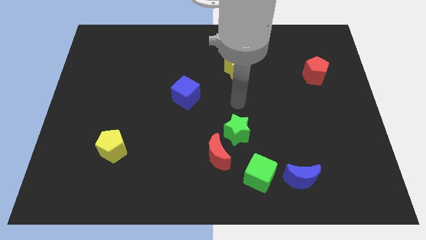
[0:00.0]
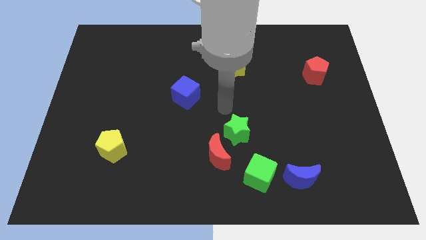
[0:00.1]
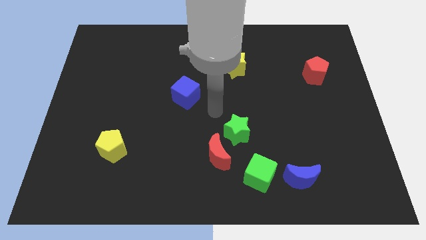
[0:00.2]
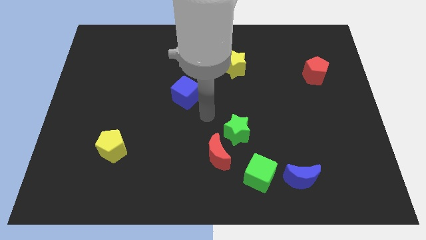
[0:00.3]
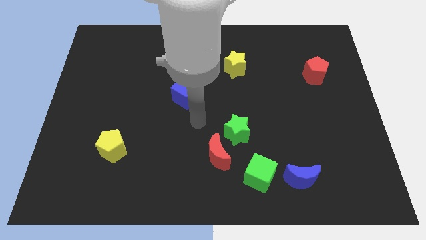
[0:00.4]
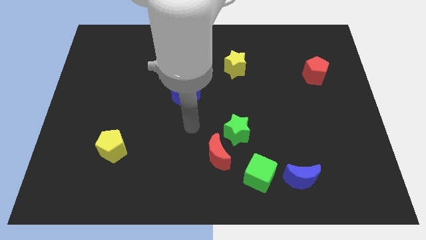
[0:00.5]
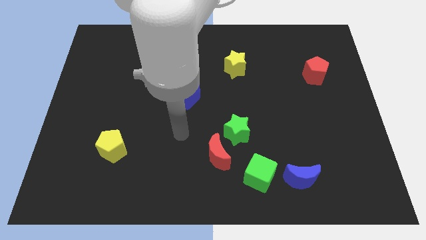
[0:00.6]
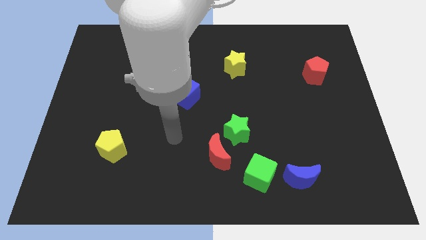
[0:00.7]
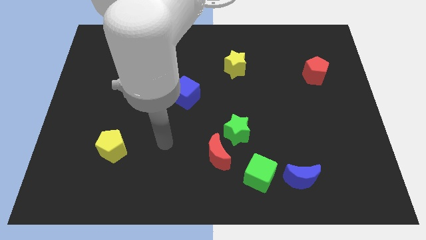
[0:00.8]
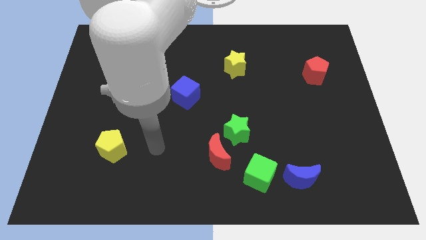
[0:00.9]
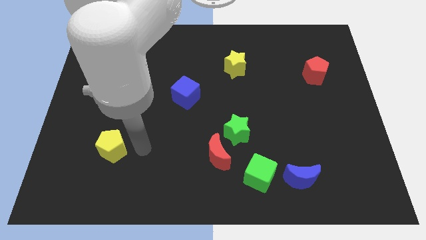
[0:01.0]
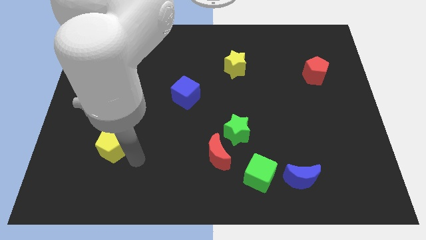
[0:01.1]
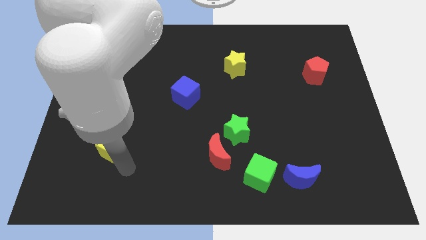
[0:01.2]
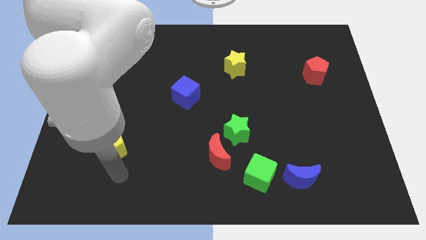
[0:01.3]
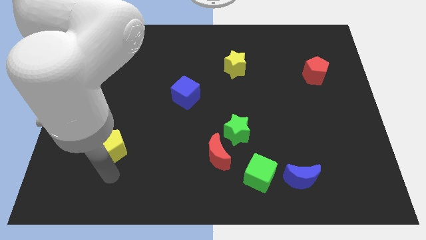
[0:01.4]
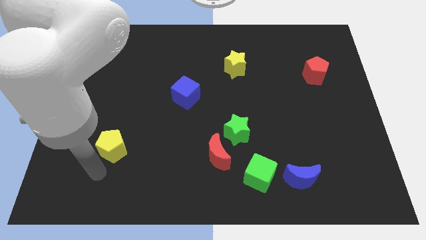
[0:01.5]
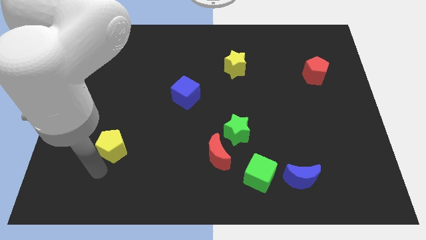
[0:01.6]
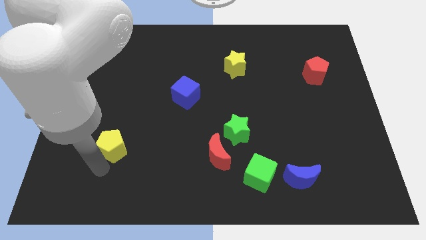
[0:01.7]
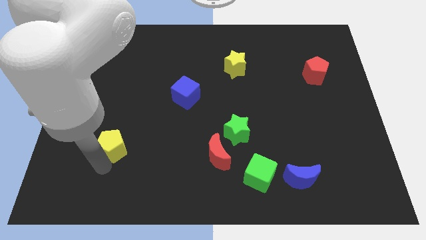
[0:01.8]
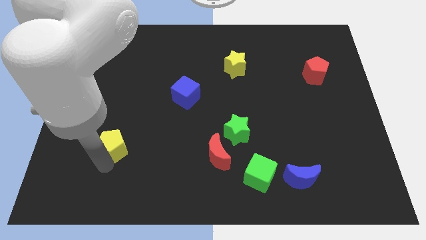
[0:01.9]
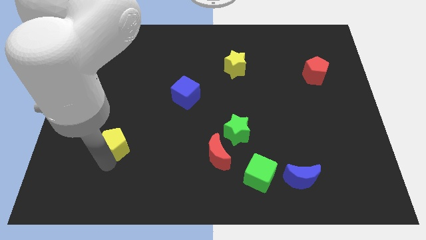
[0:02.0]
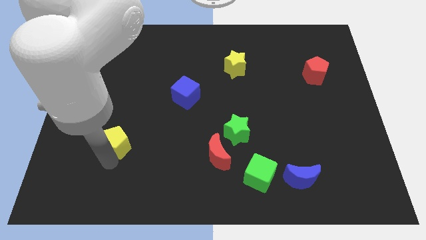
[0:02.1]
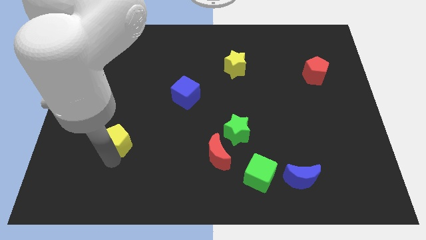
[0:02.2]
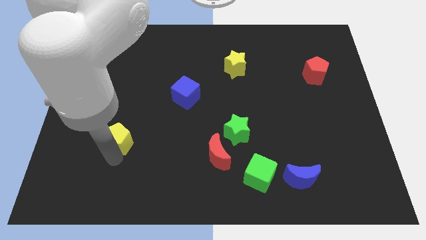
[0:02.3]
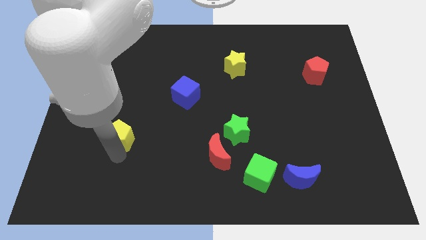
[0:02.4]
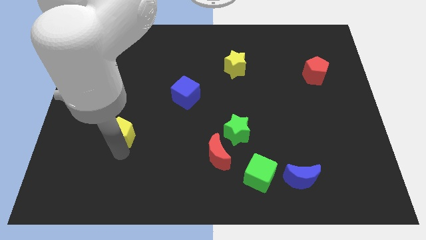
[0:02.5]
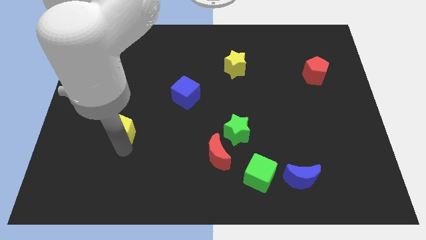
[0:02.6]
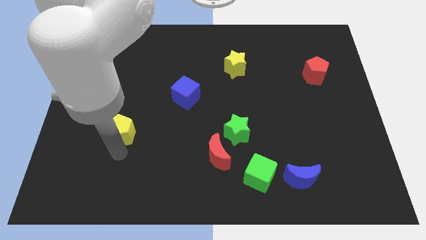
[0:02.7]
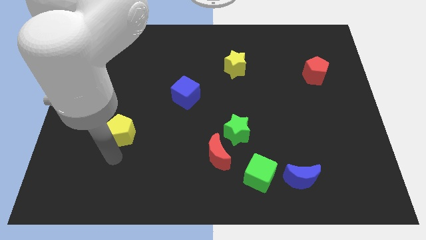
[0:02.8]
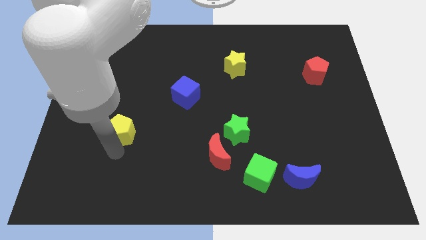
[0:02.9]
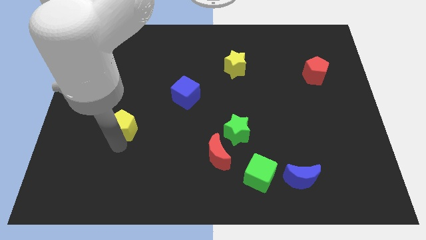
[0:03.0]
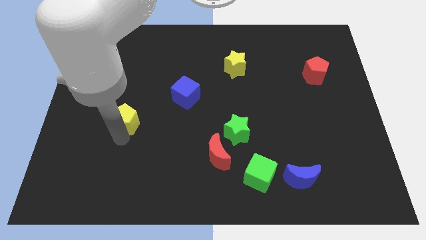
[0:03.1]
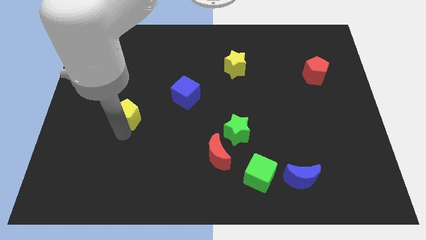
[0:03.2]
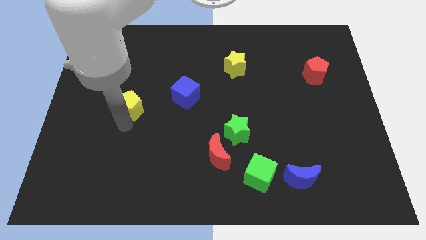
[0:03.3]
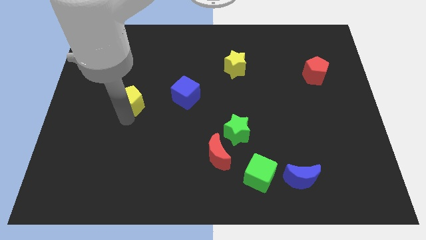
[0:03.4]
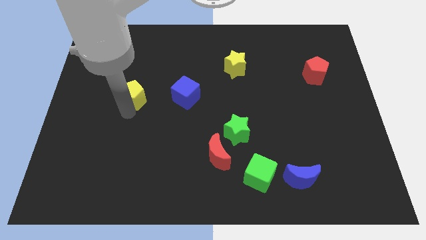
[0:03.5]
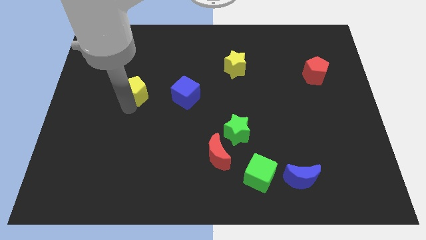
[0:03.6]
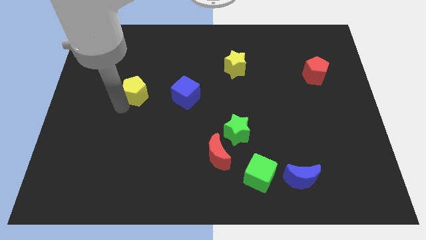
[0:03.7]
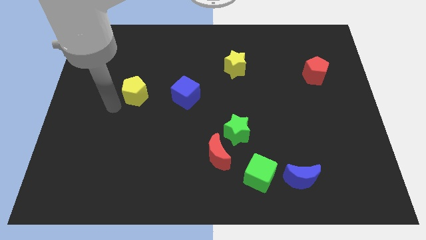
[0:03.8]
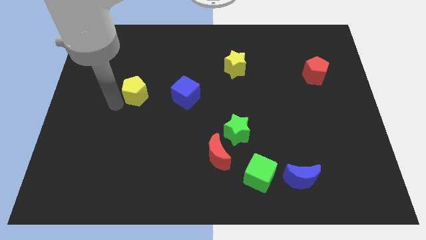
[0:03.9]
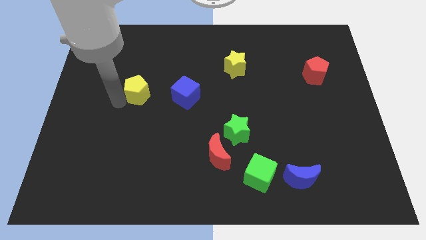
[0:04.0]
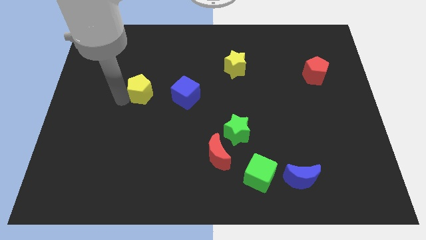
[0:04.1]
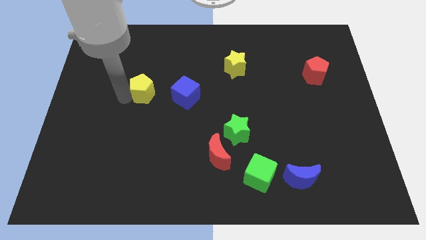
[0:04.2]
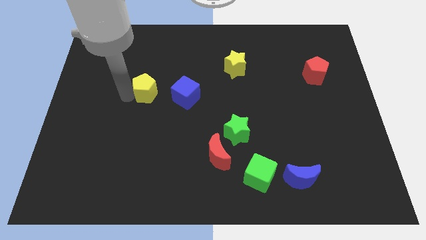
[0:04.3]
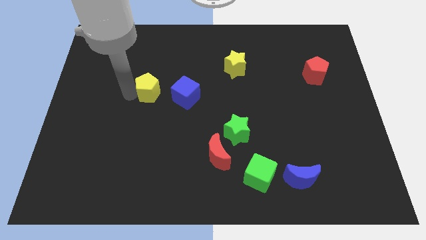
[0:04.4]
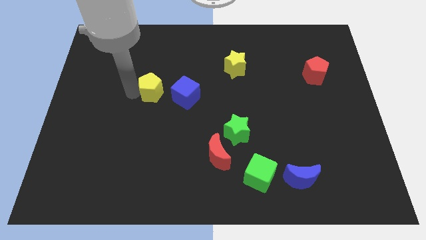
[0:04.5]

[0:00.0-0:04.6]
move the yellow pentagon to the top left of the blue cube

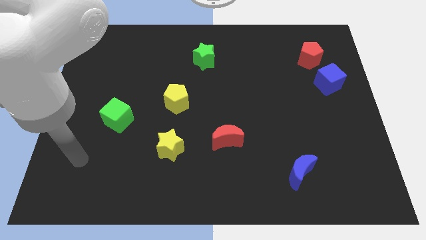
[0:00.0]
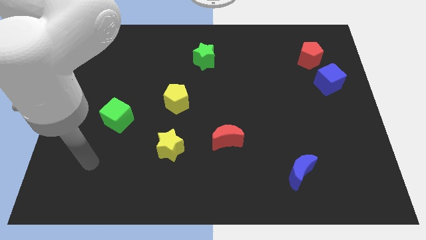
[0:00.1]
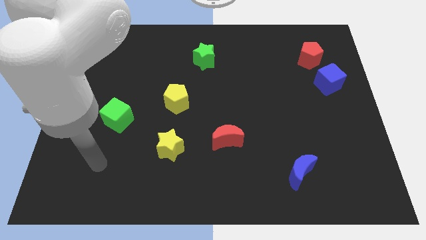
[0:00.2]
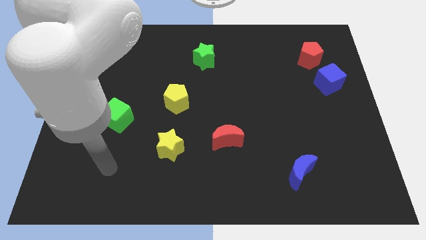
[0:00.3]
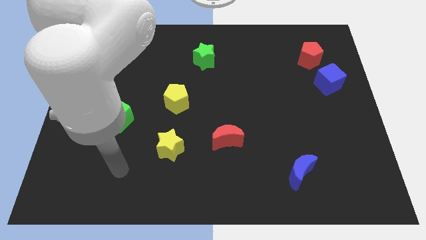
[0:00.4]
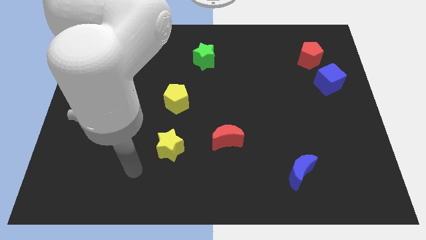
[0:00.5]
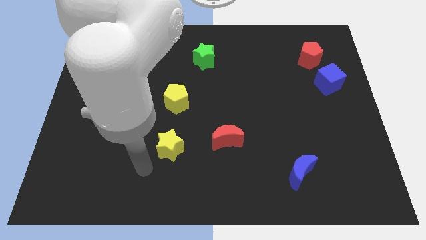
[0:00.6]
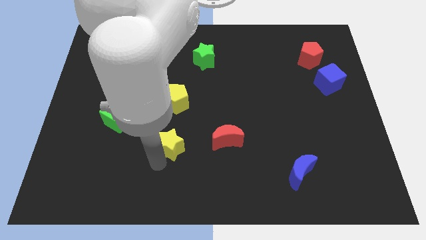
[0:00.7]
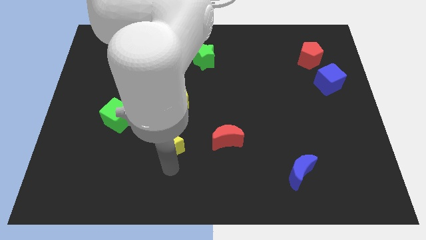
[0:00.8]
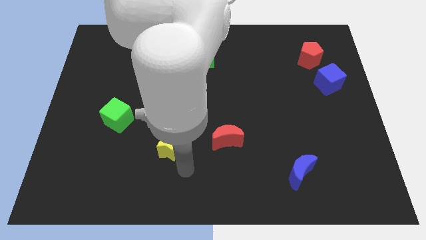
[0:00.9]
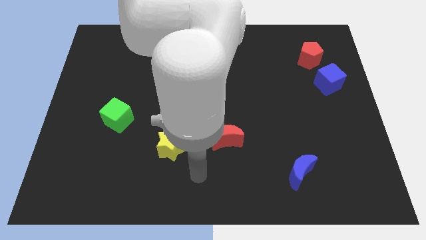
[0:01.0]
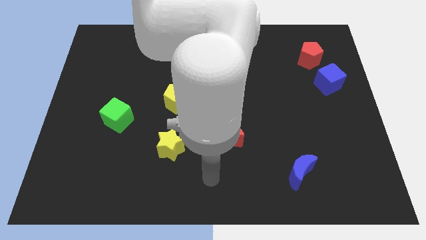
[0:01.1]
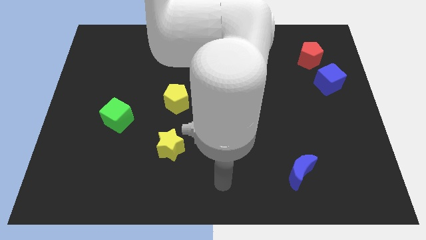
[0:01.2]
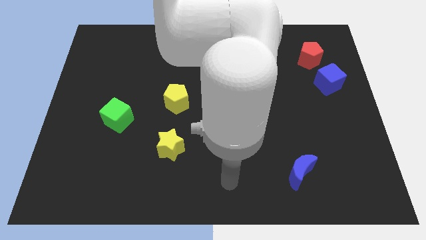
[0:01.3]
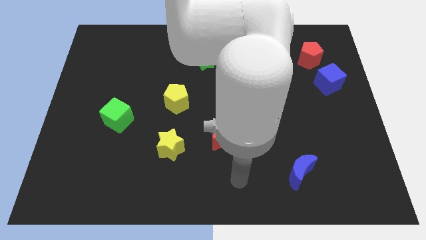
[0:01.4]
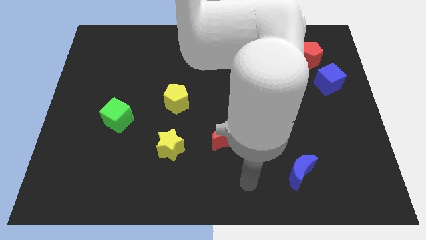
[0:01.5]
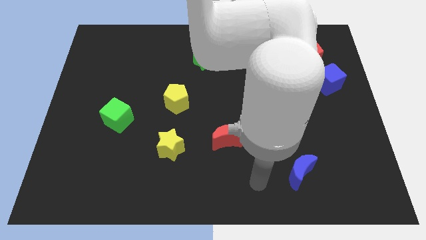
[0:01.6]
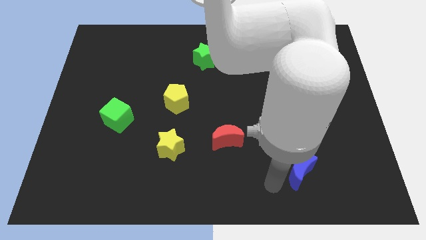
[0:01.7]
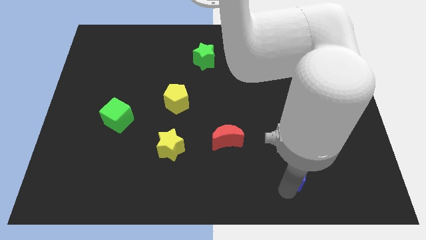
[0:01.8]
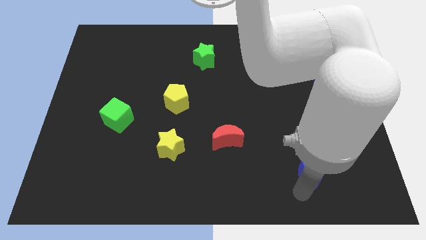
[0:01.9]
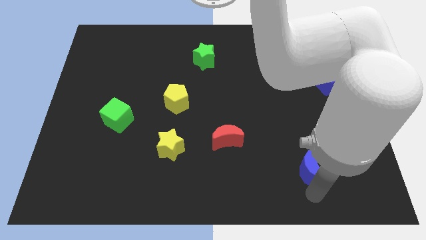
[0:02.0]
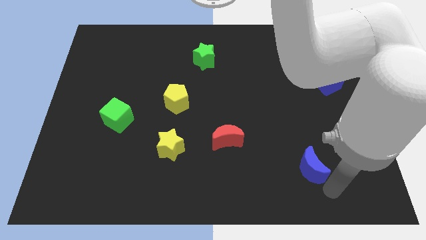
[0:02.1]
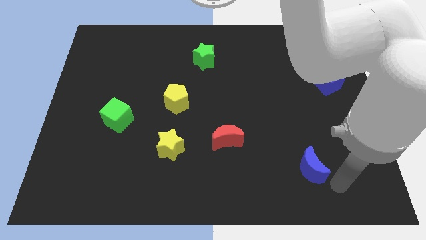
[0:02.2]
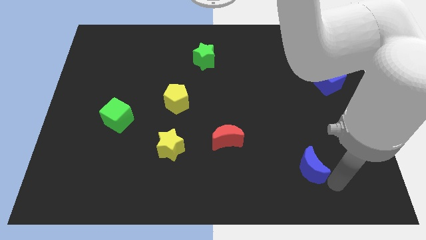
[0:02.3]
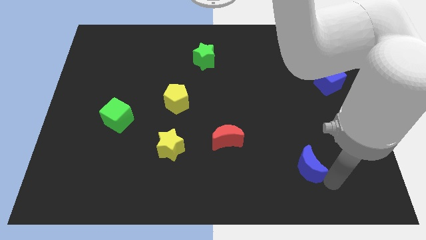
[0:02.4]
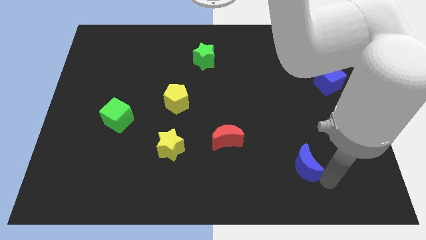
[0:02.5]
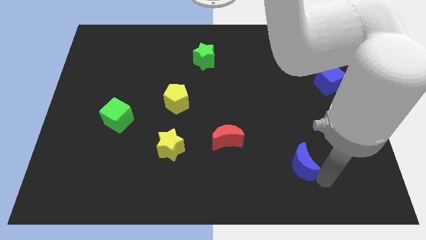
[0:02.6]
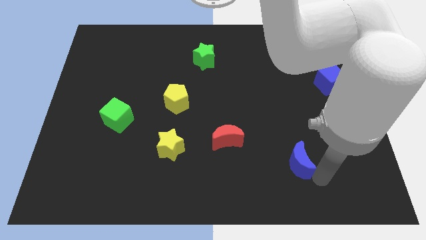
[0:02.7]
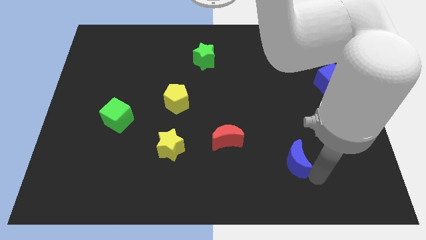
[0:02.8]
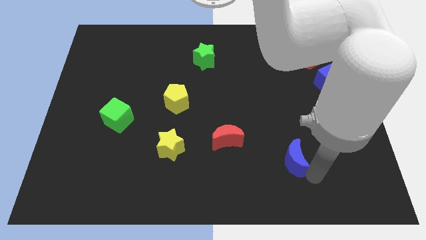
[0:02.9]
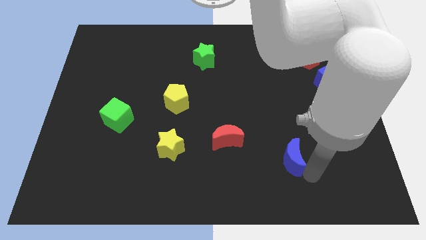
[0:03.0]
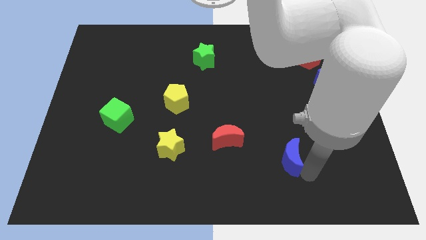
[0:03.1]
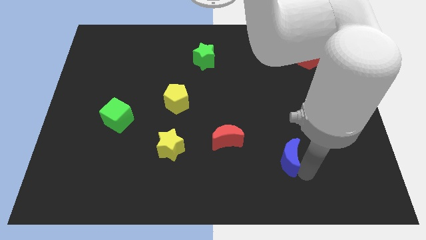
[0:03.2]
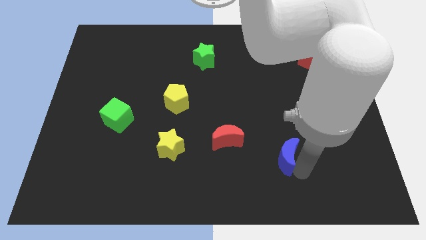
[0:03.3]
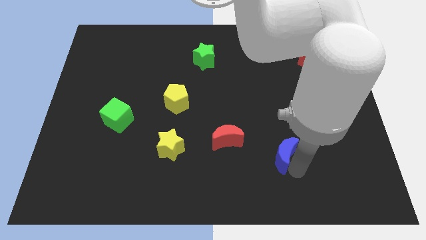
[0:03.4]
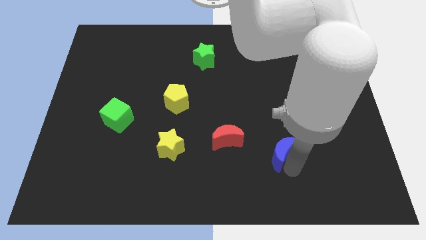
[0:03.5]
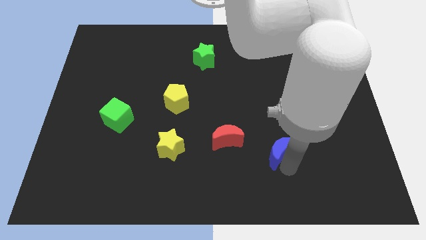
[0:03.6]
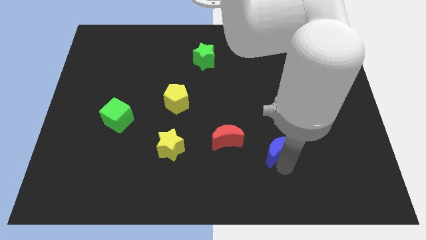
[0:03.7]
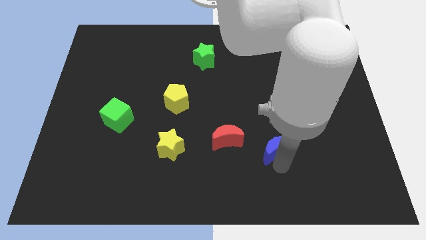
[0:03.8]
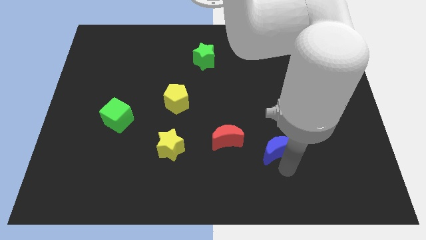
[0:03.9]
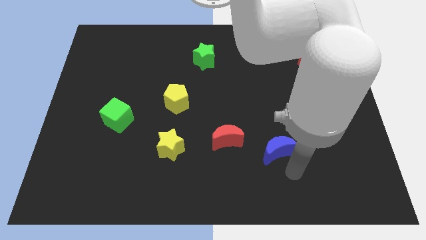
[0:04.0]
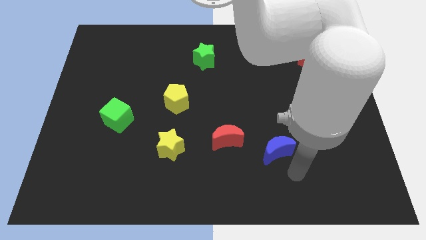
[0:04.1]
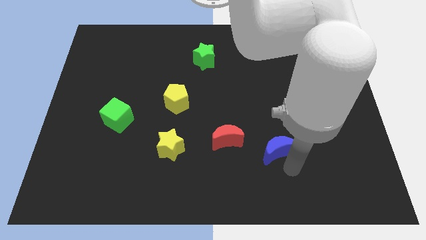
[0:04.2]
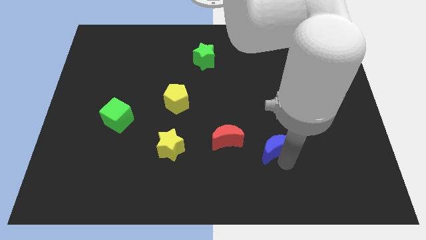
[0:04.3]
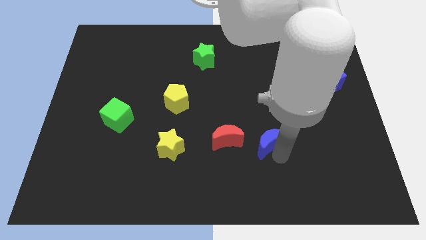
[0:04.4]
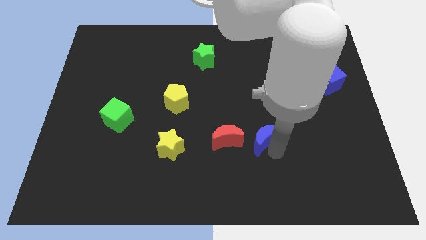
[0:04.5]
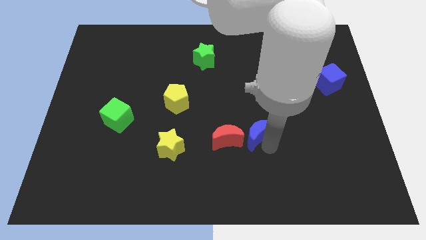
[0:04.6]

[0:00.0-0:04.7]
slide the blue moon to the top right of the red moon
